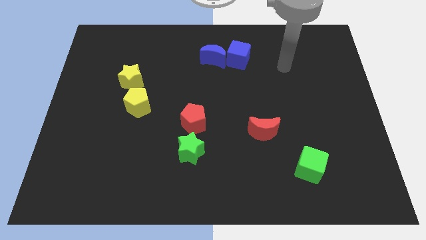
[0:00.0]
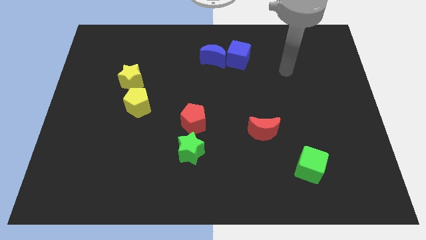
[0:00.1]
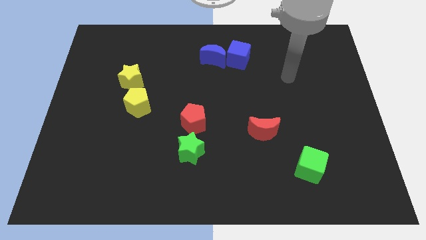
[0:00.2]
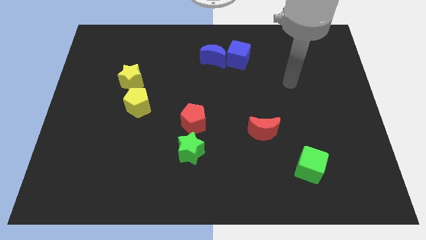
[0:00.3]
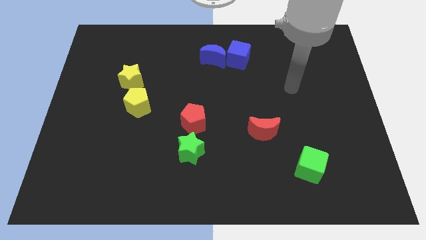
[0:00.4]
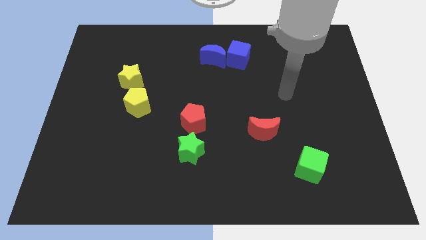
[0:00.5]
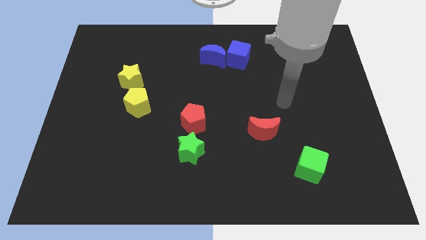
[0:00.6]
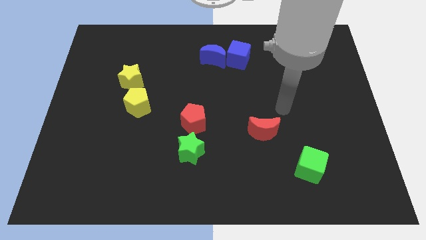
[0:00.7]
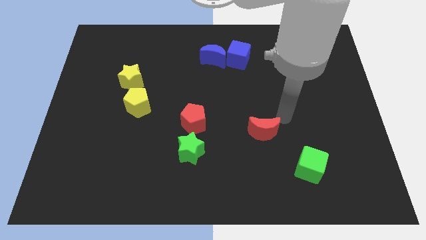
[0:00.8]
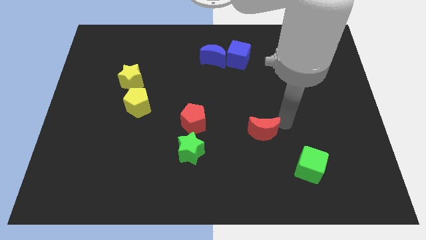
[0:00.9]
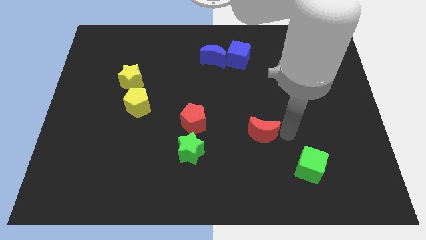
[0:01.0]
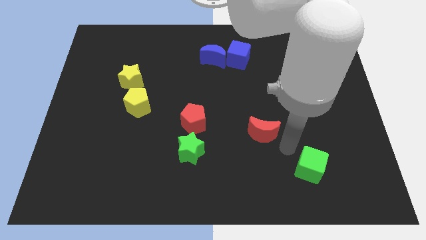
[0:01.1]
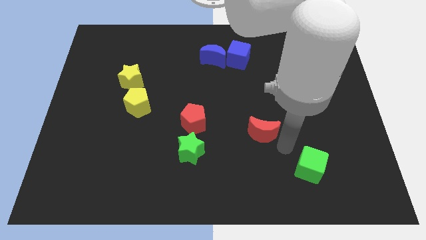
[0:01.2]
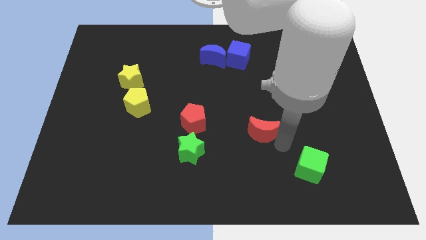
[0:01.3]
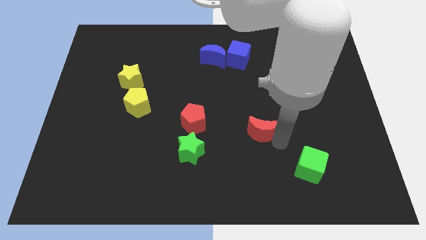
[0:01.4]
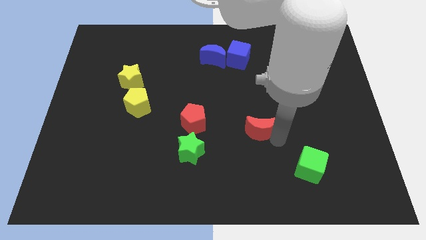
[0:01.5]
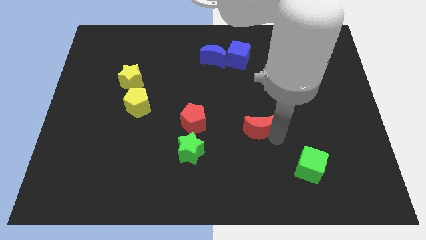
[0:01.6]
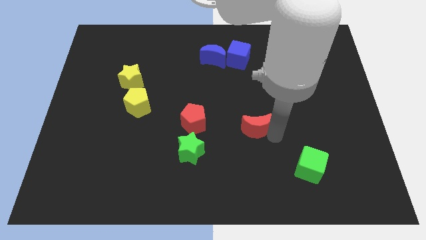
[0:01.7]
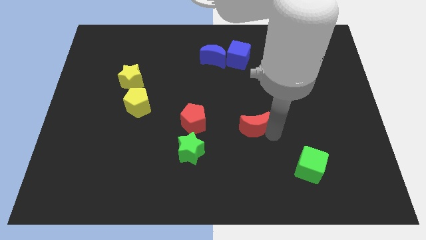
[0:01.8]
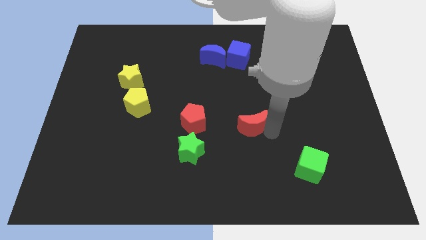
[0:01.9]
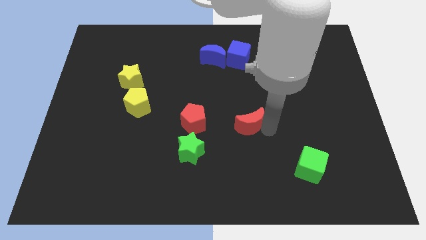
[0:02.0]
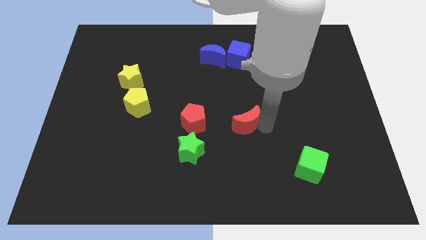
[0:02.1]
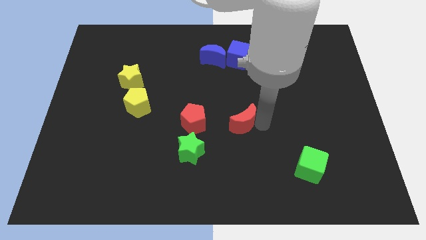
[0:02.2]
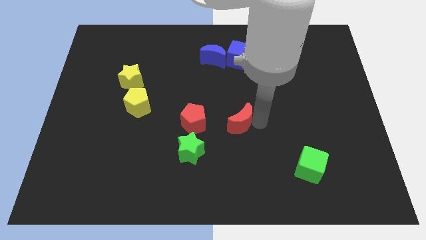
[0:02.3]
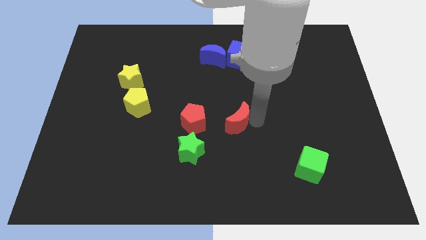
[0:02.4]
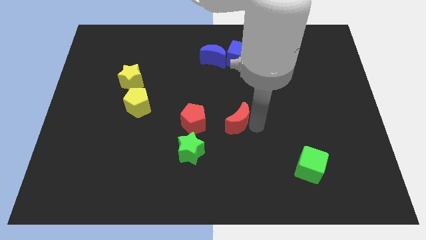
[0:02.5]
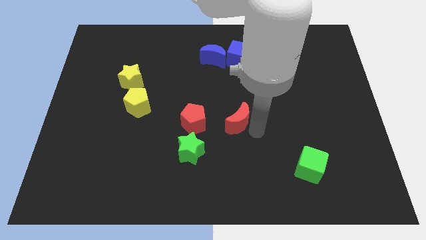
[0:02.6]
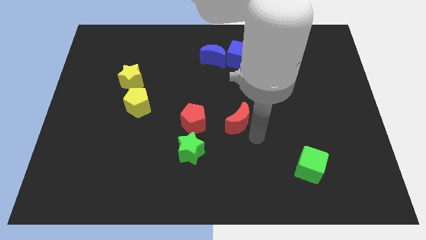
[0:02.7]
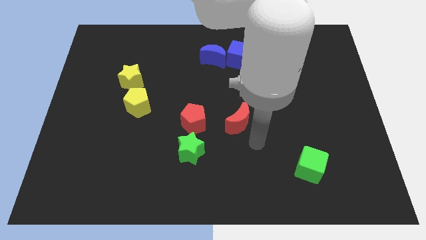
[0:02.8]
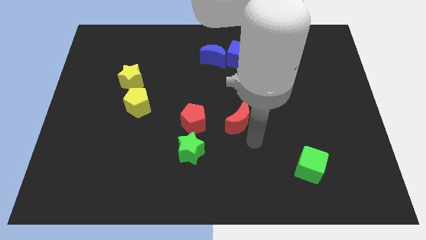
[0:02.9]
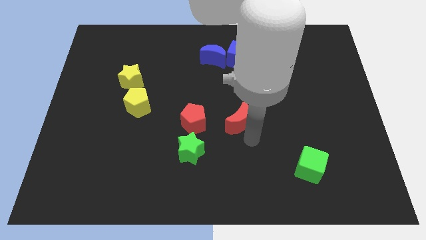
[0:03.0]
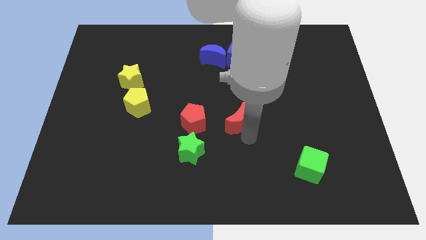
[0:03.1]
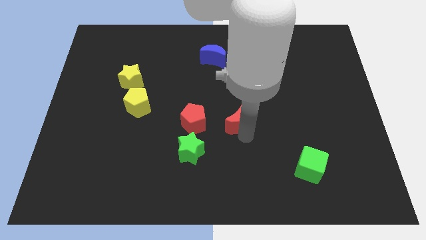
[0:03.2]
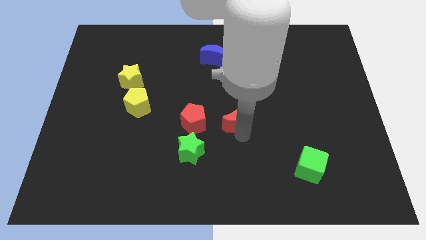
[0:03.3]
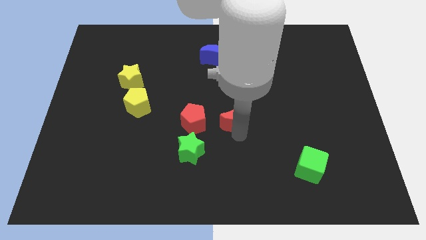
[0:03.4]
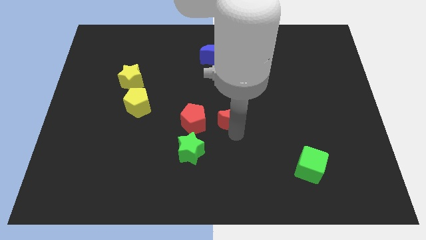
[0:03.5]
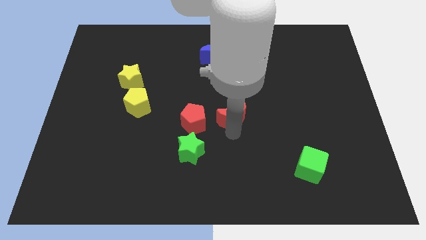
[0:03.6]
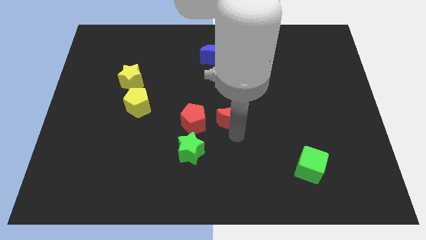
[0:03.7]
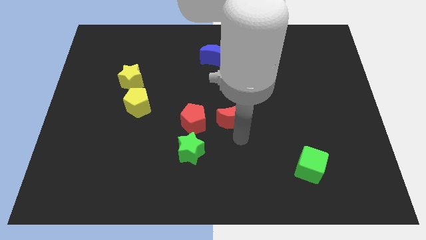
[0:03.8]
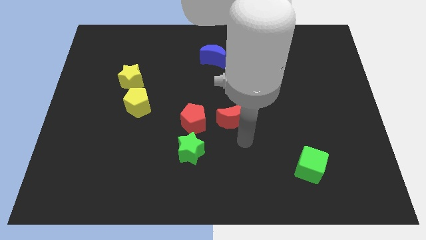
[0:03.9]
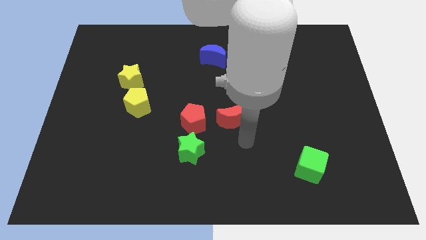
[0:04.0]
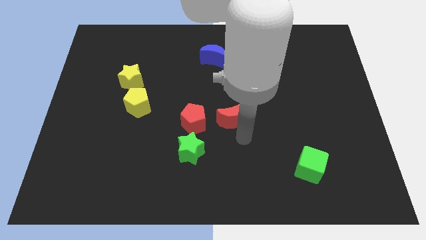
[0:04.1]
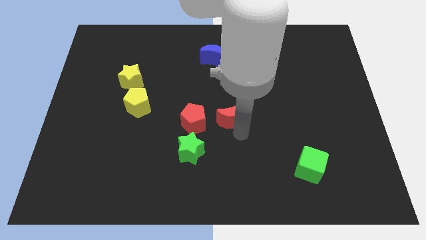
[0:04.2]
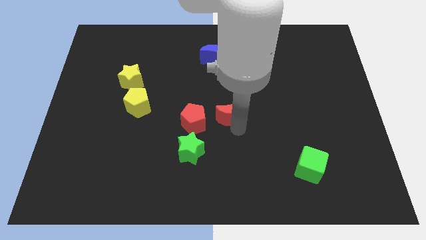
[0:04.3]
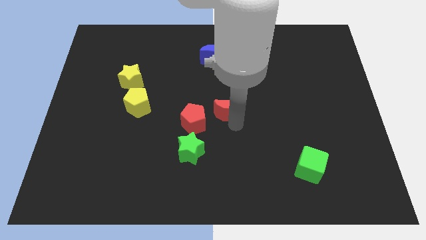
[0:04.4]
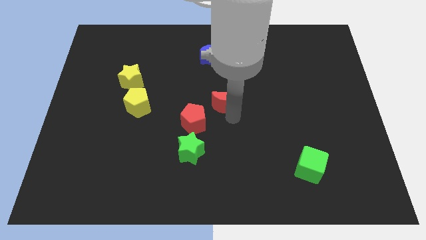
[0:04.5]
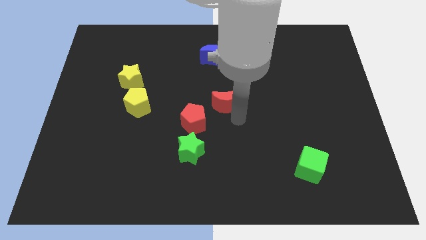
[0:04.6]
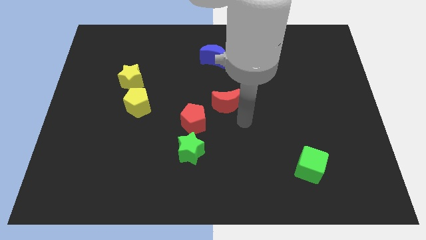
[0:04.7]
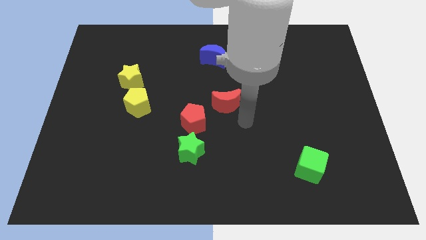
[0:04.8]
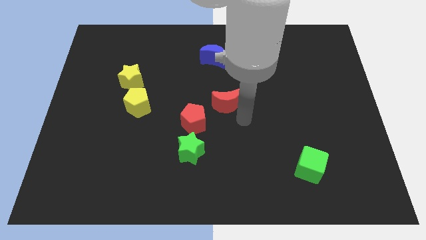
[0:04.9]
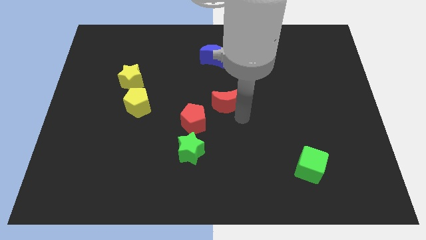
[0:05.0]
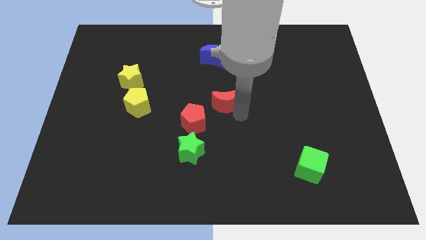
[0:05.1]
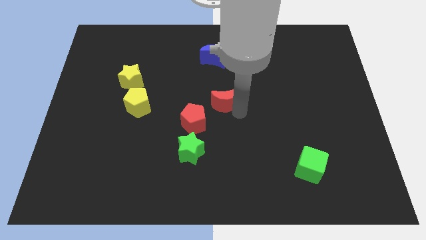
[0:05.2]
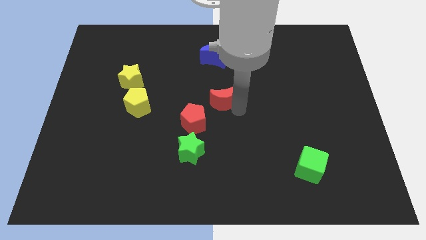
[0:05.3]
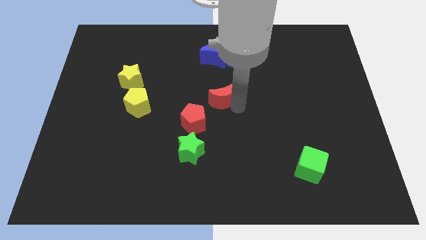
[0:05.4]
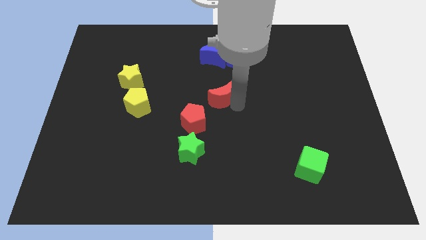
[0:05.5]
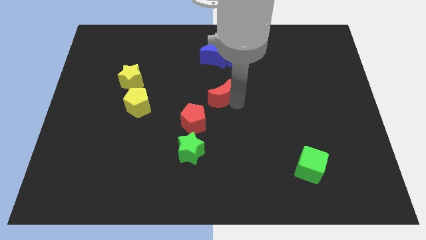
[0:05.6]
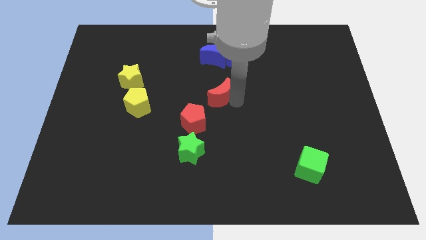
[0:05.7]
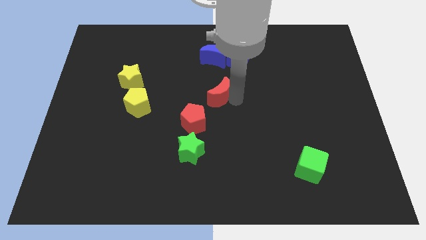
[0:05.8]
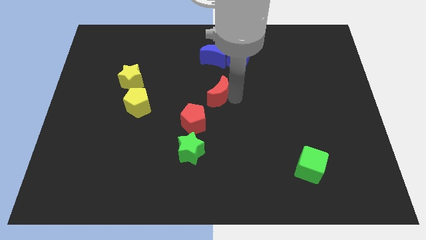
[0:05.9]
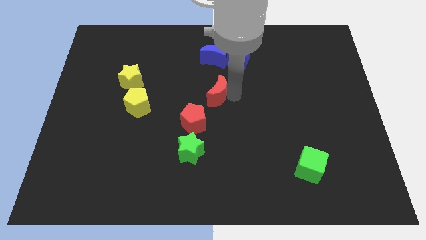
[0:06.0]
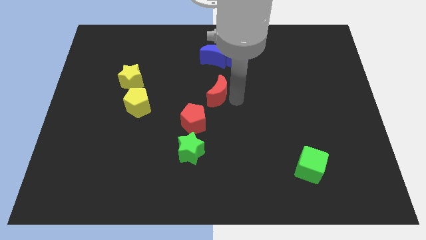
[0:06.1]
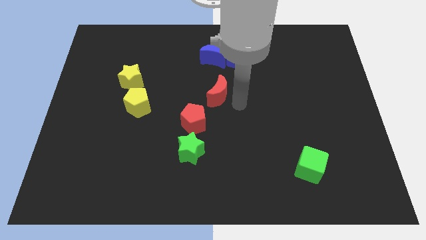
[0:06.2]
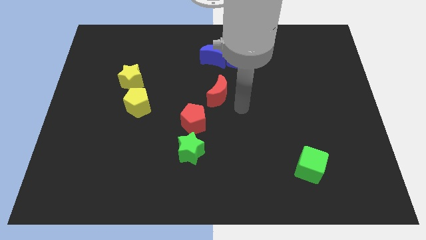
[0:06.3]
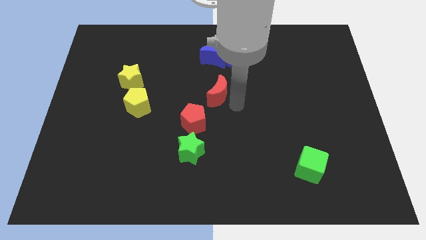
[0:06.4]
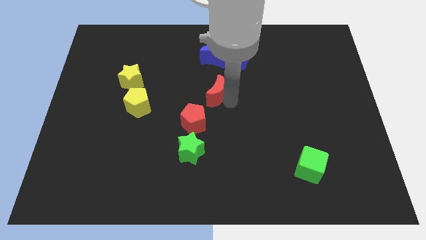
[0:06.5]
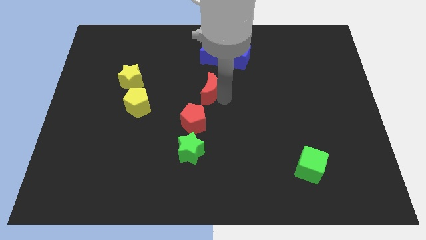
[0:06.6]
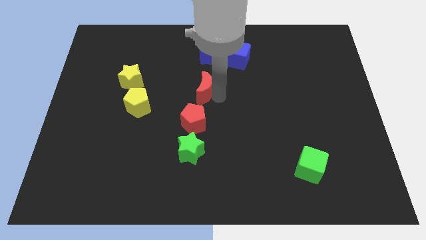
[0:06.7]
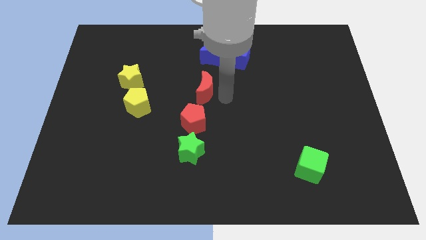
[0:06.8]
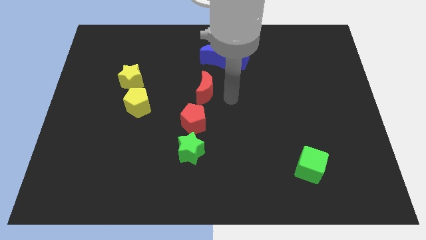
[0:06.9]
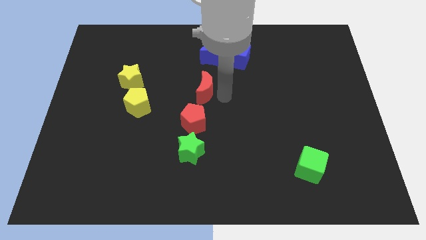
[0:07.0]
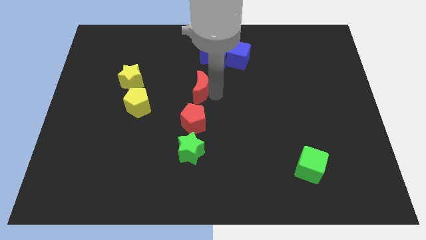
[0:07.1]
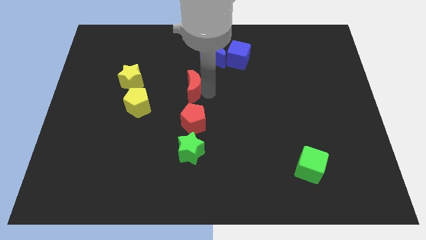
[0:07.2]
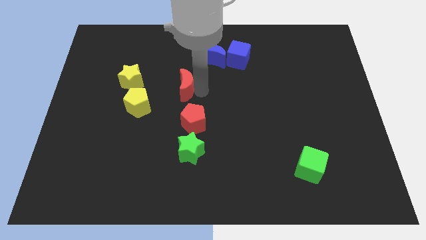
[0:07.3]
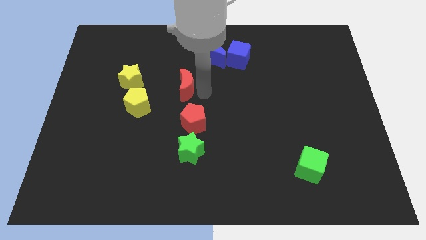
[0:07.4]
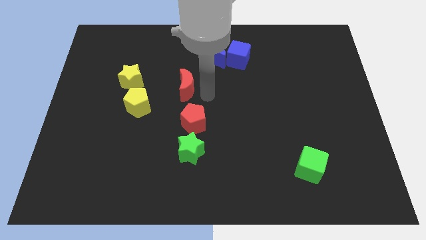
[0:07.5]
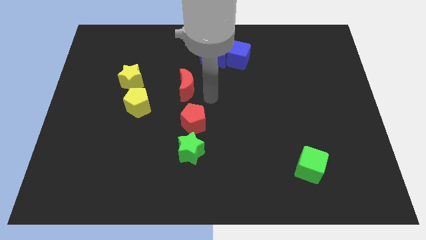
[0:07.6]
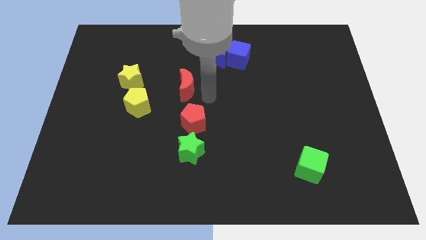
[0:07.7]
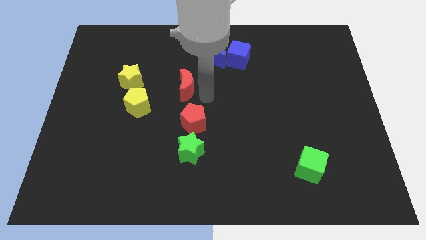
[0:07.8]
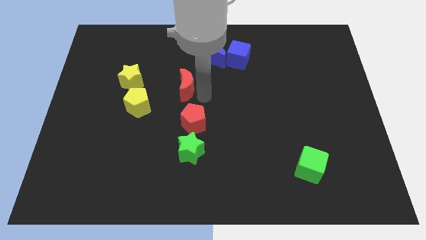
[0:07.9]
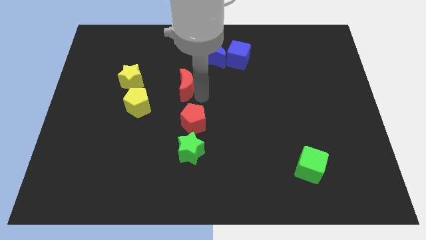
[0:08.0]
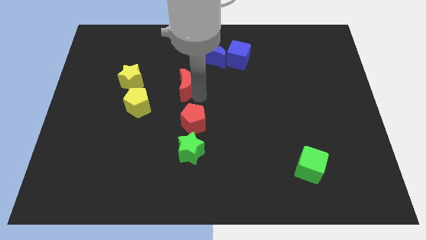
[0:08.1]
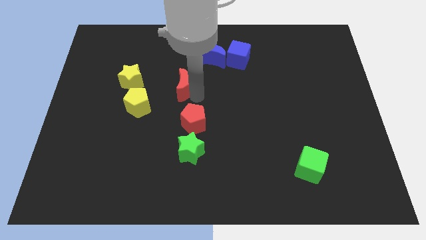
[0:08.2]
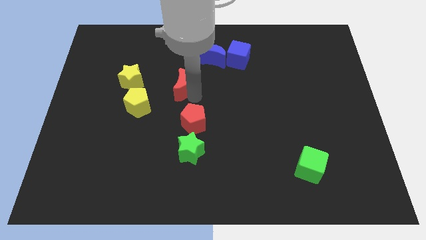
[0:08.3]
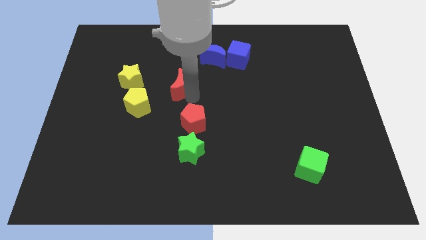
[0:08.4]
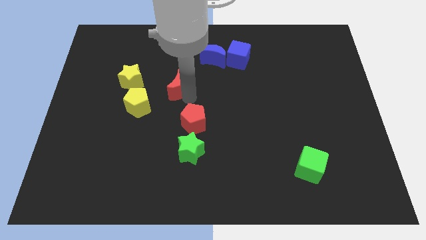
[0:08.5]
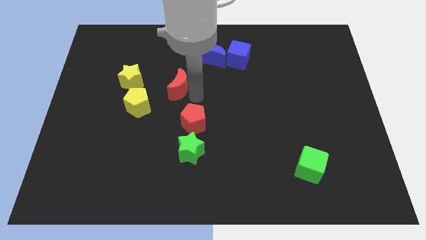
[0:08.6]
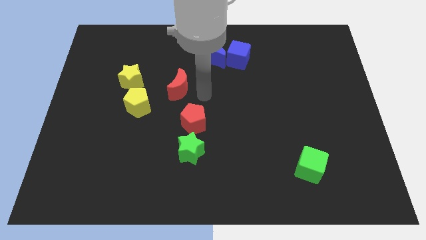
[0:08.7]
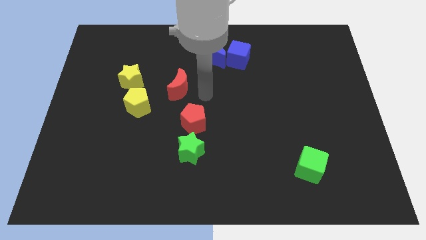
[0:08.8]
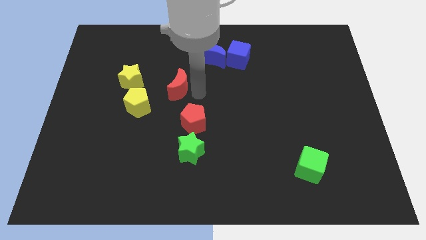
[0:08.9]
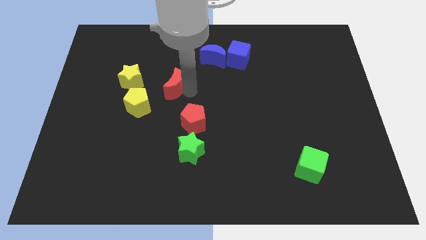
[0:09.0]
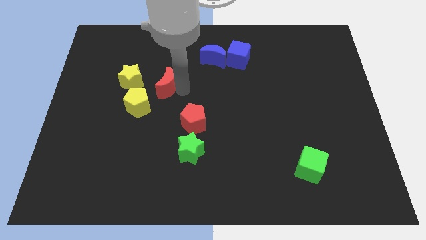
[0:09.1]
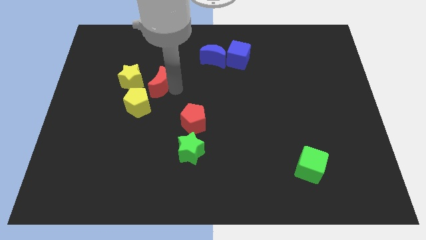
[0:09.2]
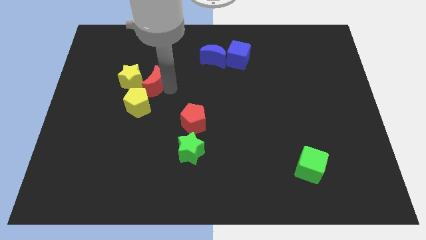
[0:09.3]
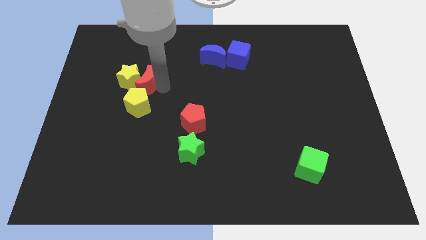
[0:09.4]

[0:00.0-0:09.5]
put the red moon next to the yellow star
